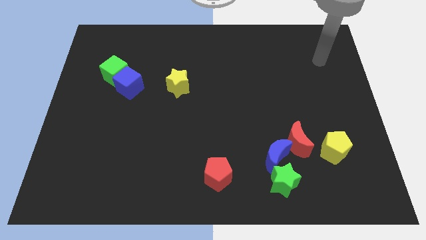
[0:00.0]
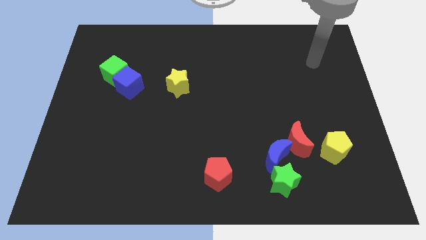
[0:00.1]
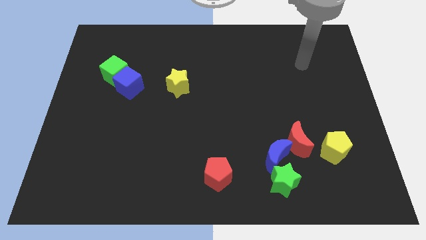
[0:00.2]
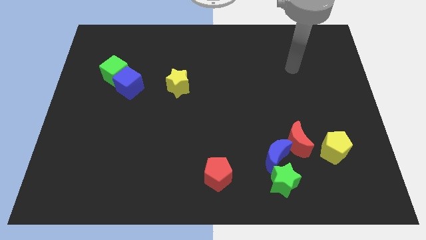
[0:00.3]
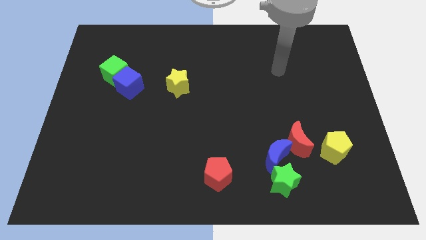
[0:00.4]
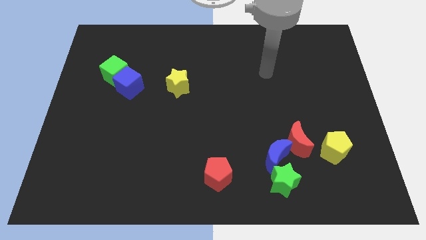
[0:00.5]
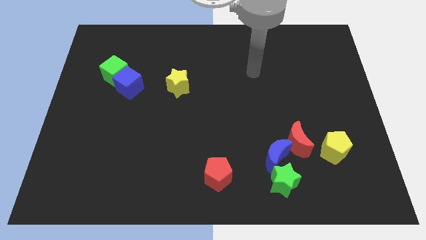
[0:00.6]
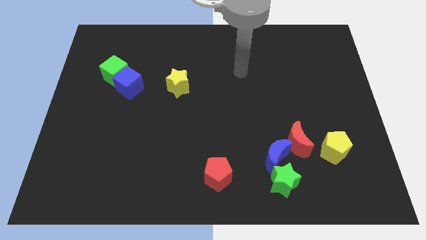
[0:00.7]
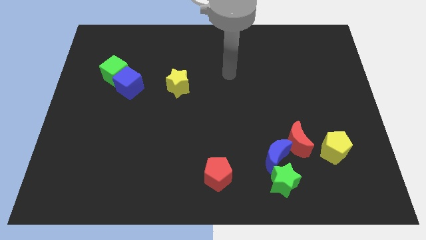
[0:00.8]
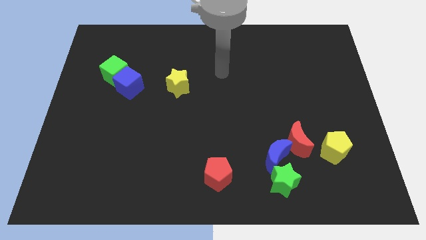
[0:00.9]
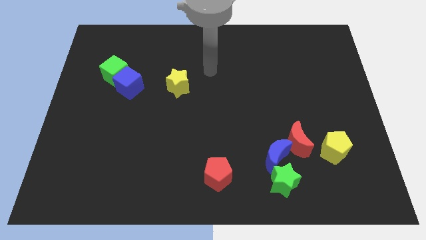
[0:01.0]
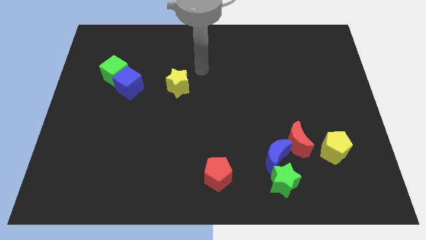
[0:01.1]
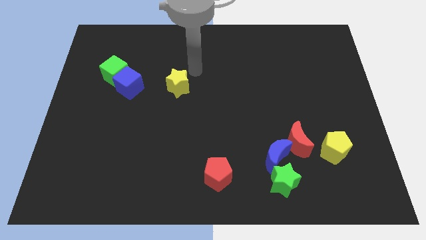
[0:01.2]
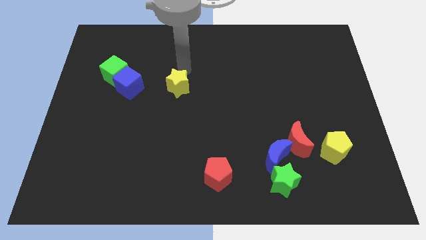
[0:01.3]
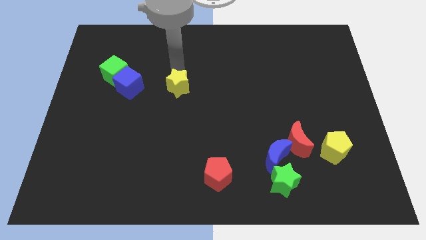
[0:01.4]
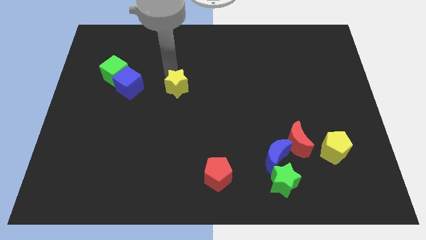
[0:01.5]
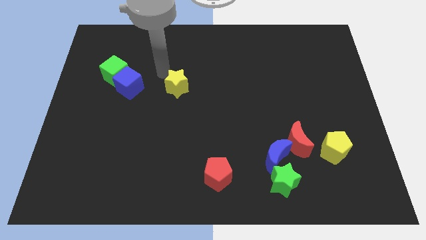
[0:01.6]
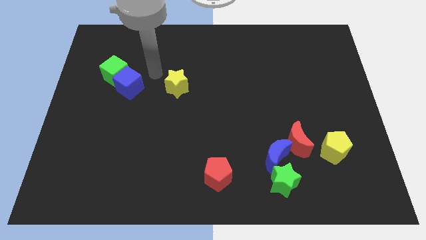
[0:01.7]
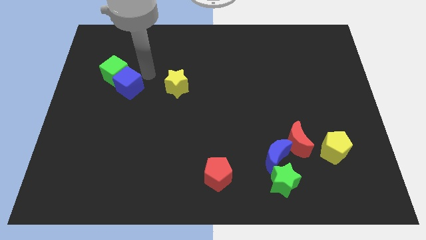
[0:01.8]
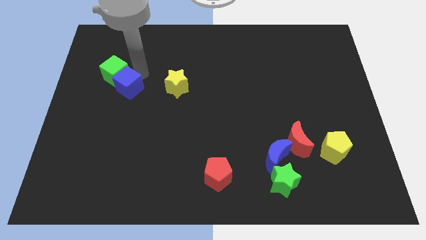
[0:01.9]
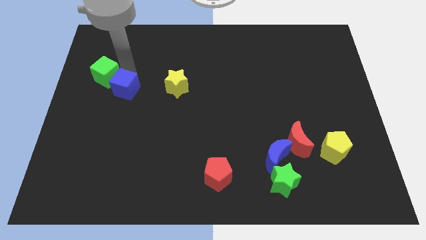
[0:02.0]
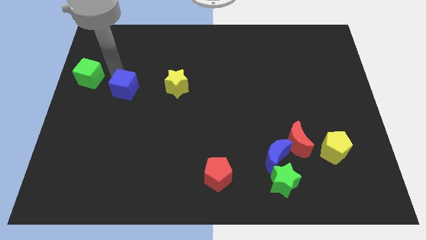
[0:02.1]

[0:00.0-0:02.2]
move the blue cube away from the green cube

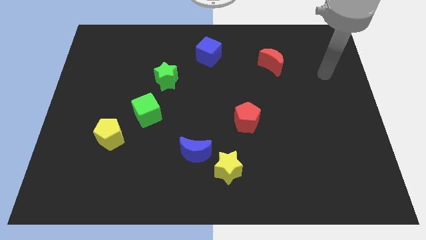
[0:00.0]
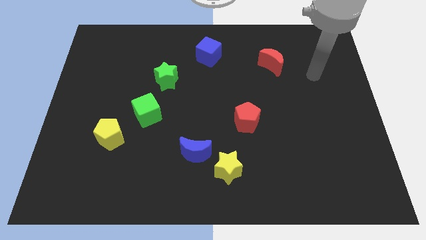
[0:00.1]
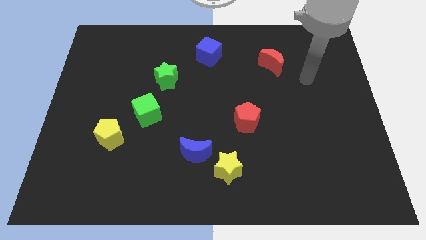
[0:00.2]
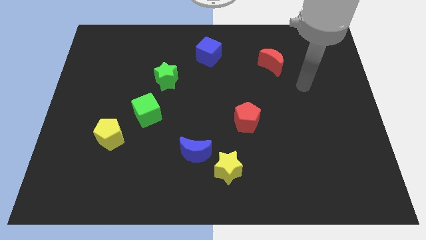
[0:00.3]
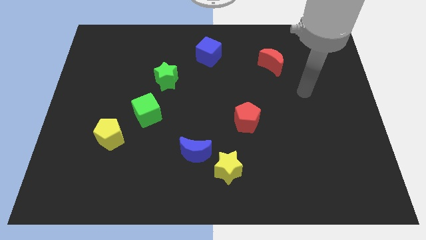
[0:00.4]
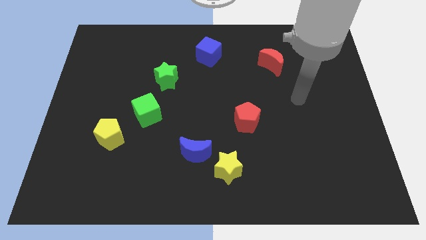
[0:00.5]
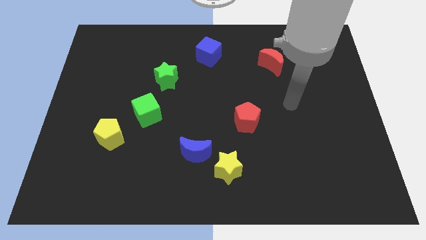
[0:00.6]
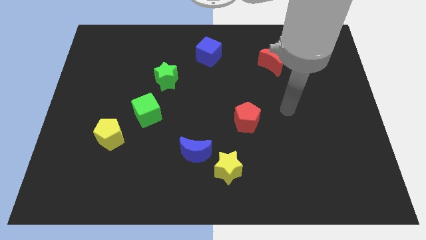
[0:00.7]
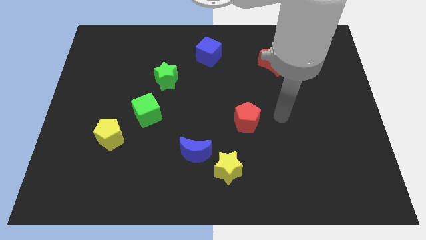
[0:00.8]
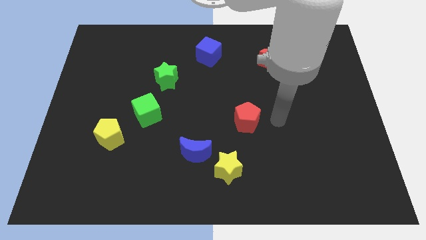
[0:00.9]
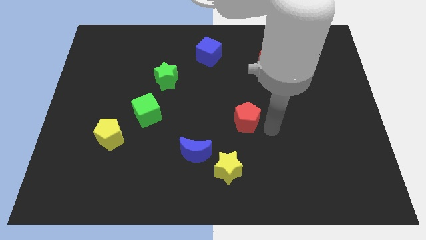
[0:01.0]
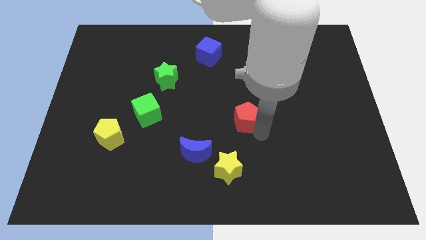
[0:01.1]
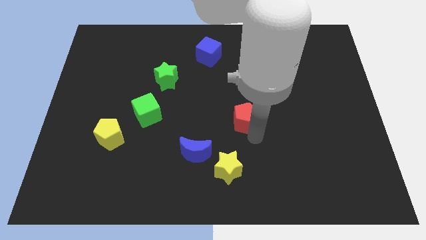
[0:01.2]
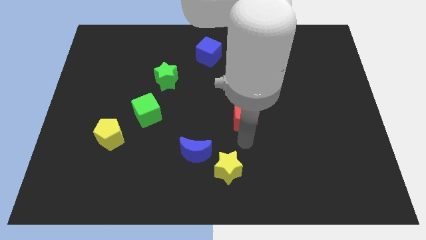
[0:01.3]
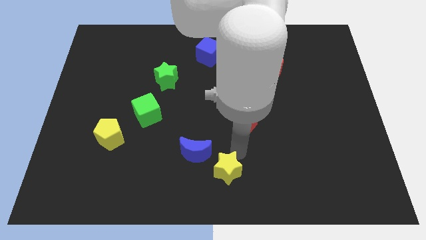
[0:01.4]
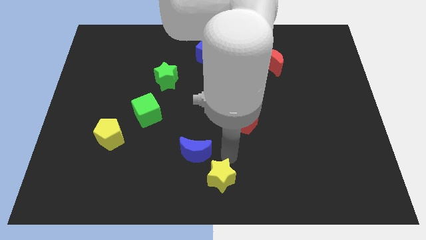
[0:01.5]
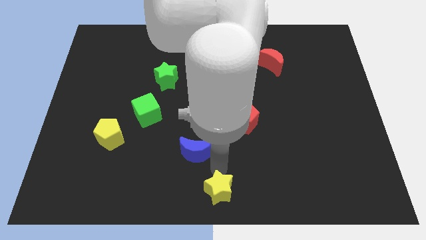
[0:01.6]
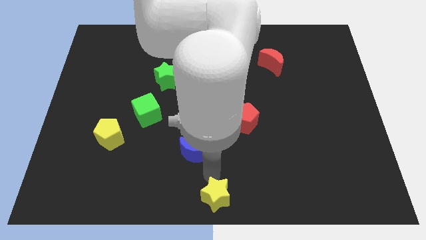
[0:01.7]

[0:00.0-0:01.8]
separate the blue moon from the yellow star

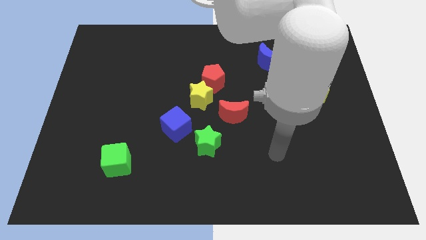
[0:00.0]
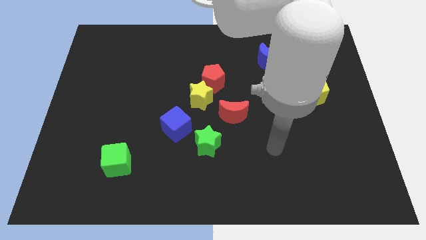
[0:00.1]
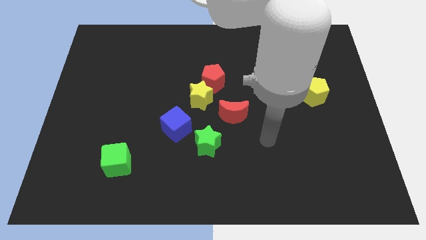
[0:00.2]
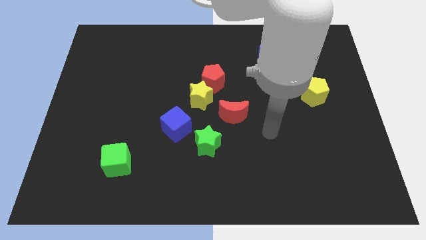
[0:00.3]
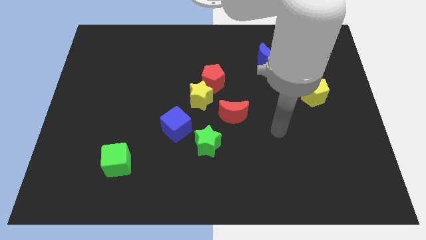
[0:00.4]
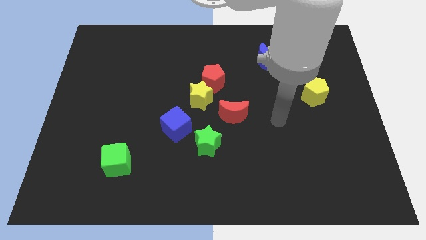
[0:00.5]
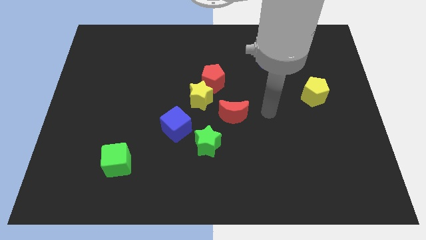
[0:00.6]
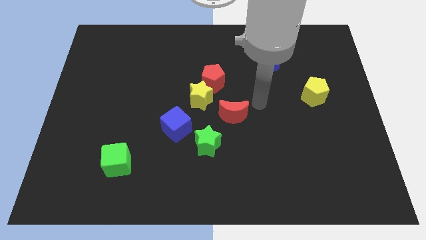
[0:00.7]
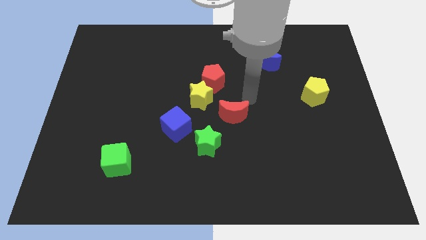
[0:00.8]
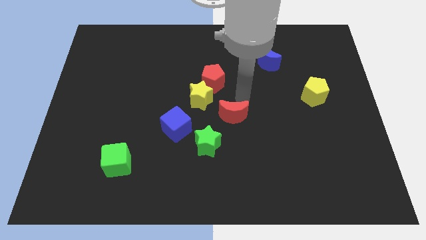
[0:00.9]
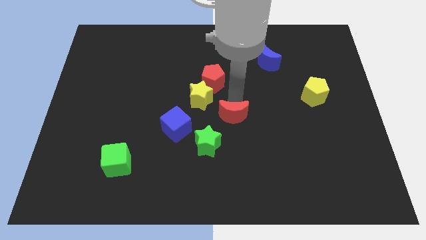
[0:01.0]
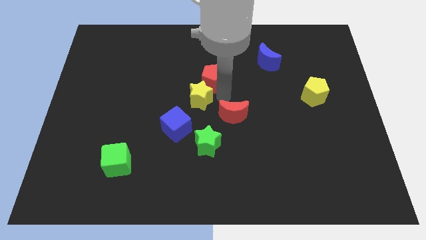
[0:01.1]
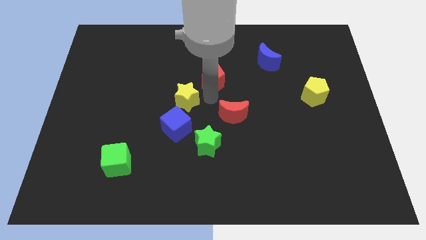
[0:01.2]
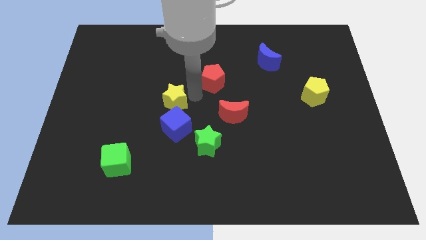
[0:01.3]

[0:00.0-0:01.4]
separate the red pentagon from the yellow star

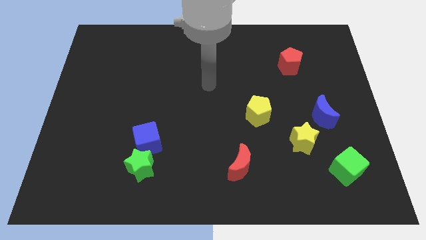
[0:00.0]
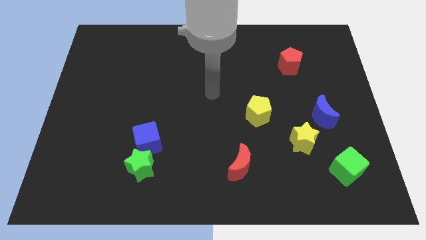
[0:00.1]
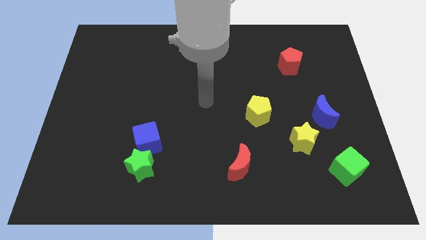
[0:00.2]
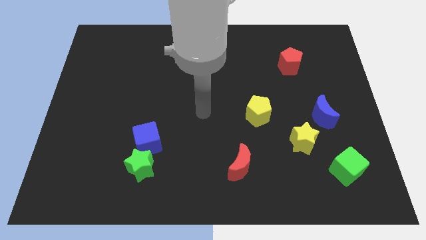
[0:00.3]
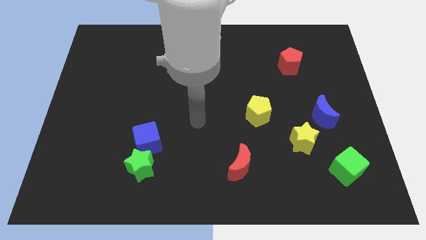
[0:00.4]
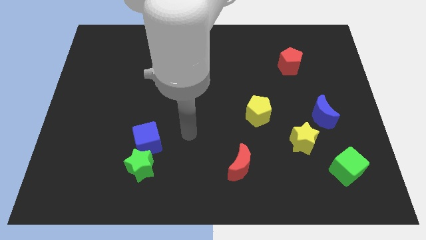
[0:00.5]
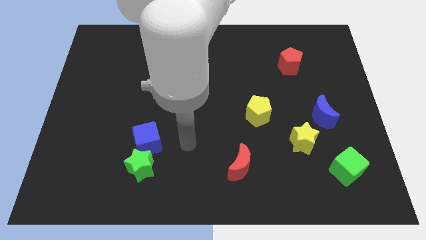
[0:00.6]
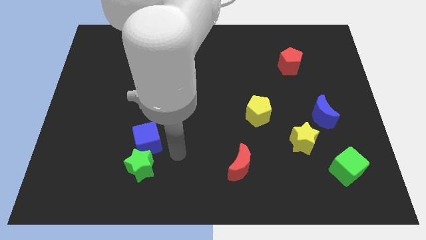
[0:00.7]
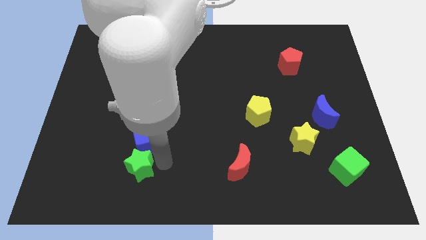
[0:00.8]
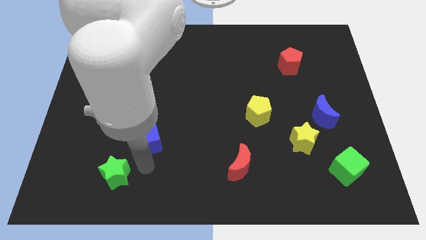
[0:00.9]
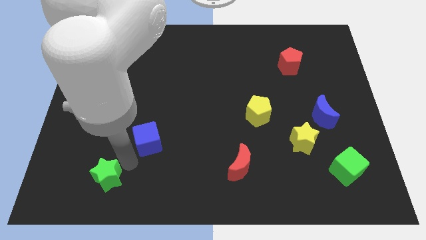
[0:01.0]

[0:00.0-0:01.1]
move the blue cube away from the green star

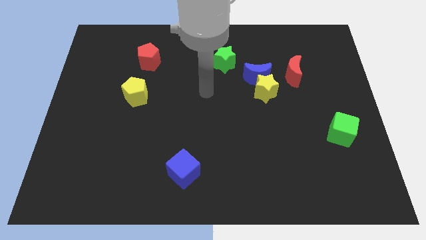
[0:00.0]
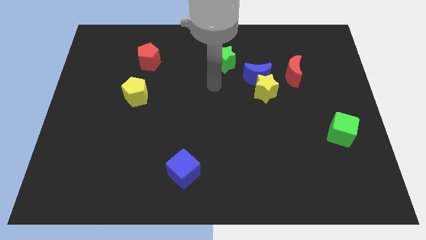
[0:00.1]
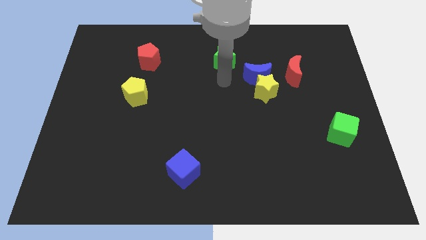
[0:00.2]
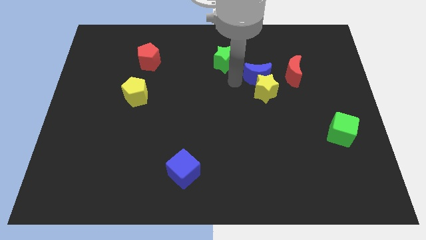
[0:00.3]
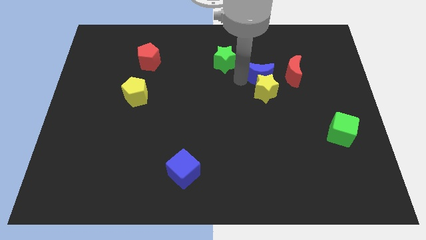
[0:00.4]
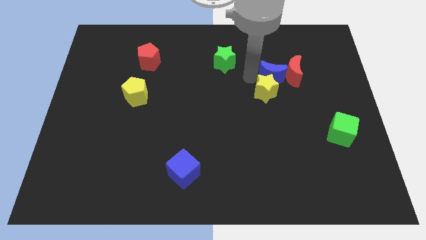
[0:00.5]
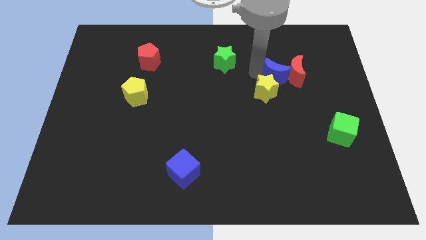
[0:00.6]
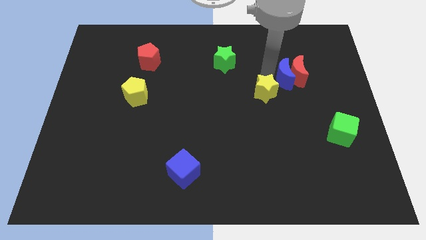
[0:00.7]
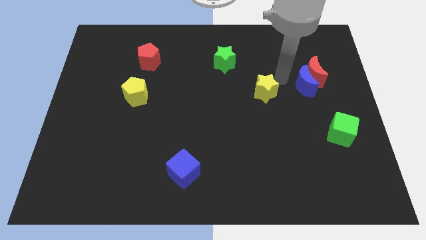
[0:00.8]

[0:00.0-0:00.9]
pull the yellow star apart from the blue moon and red moon

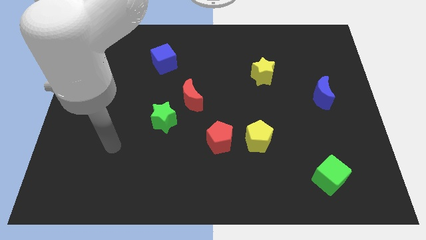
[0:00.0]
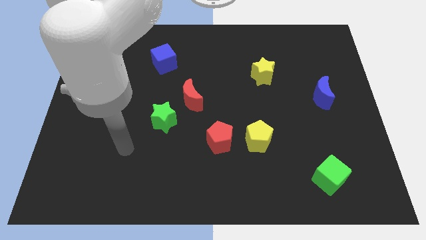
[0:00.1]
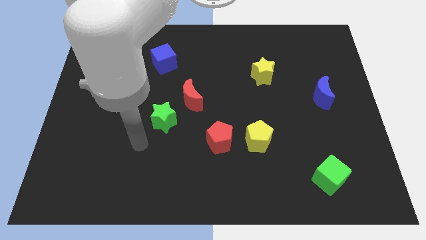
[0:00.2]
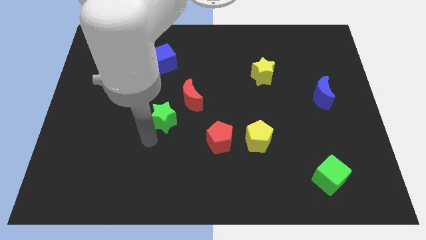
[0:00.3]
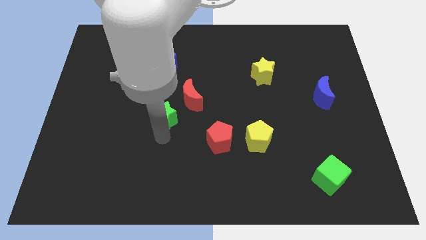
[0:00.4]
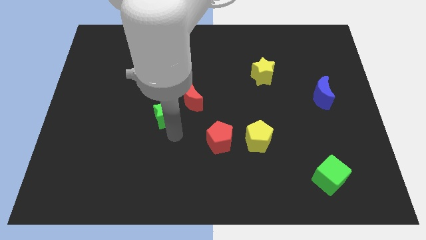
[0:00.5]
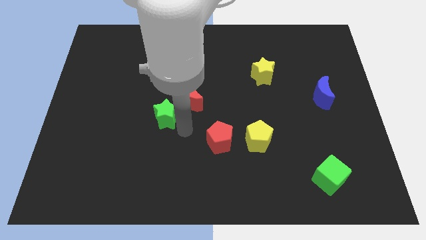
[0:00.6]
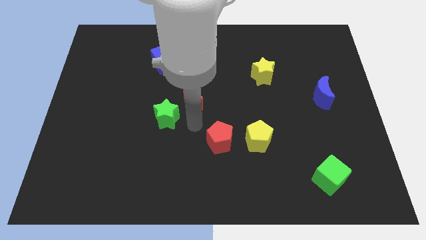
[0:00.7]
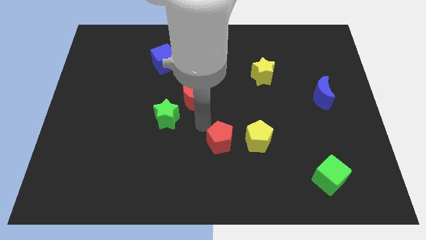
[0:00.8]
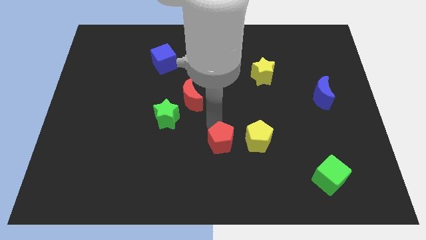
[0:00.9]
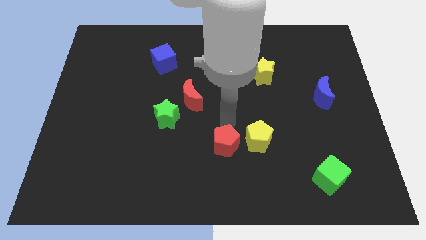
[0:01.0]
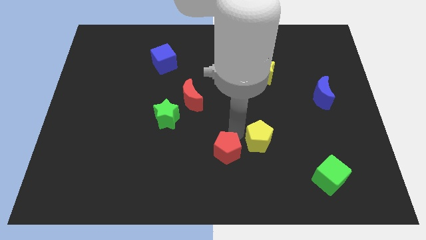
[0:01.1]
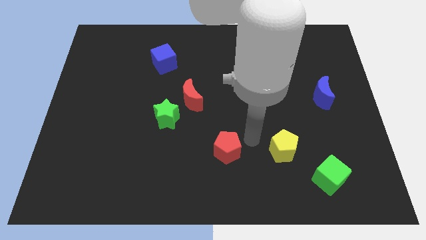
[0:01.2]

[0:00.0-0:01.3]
pull the red pentagon apart from the yellow pentagon

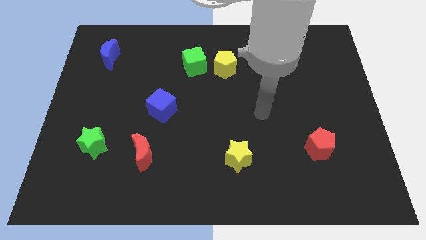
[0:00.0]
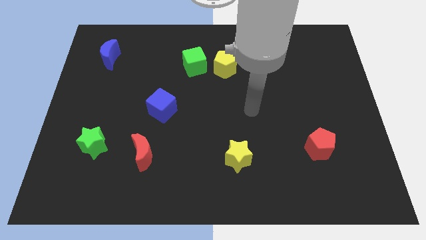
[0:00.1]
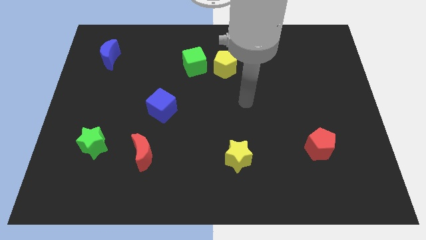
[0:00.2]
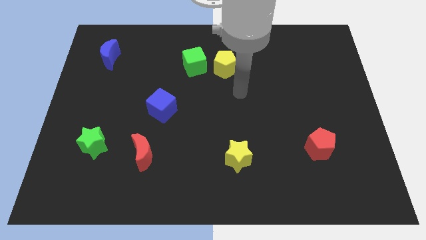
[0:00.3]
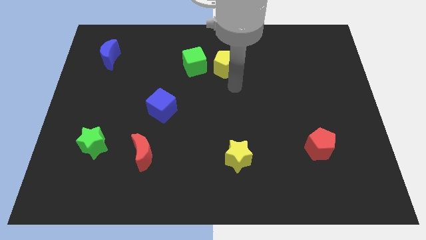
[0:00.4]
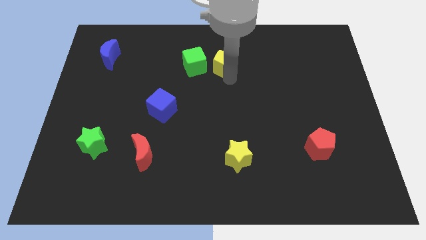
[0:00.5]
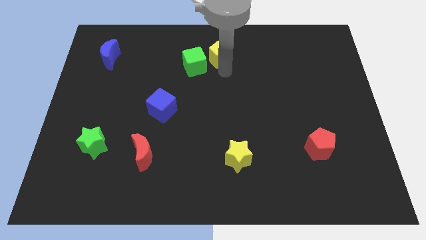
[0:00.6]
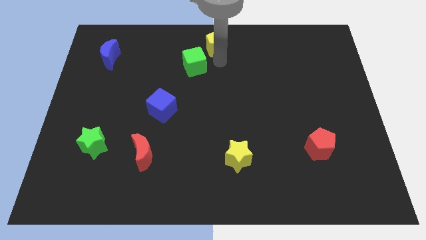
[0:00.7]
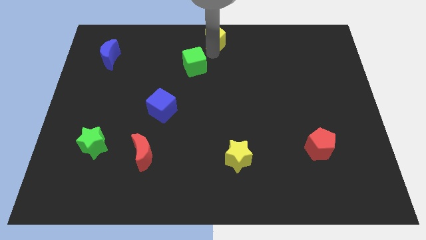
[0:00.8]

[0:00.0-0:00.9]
separate the green cube from the yellow pentagon
